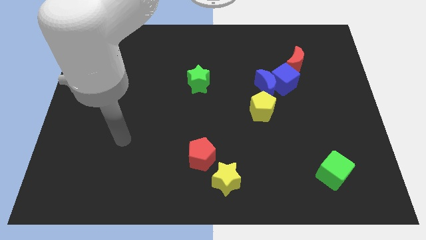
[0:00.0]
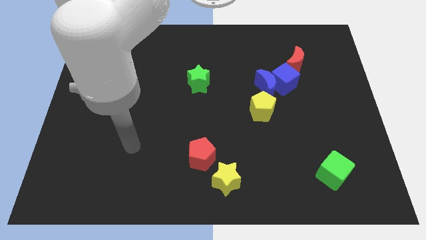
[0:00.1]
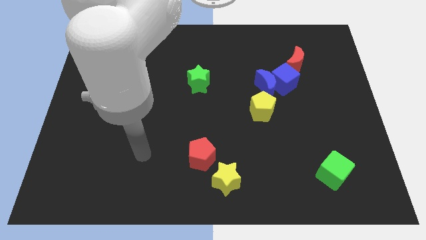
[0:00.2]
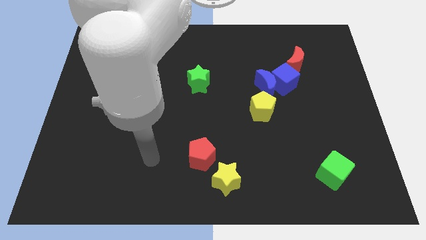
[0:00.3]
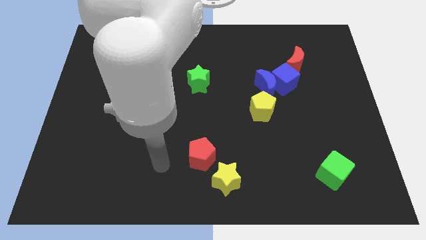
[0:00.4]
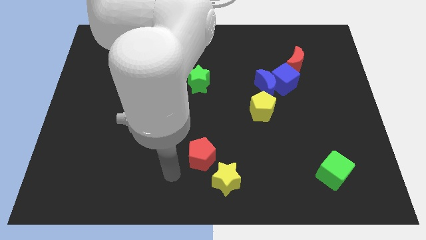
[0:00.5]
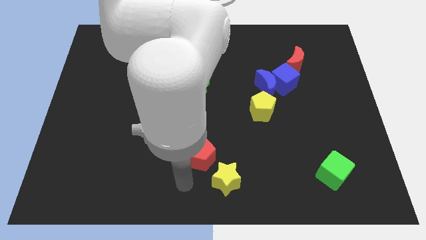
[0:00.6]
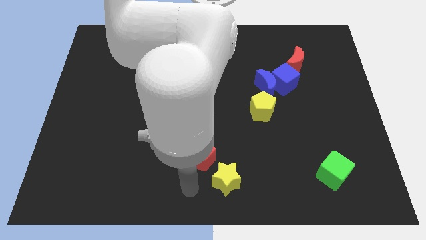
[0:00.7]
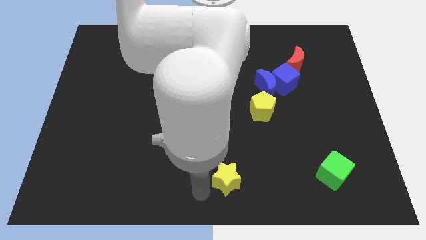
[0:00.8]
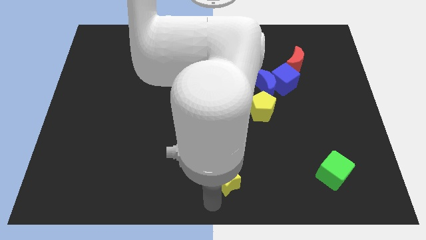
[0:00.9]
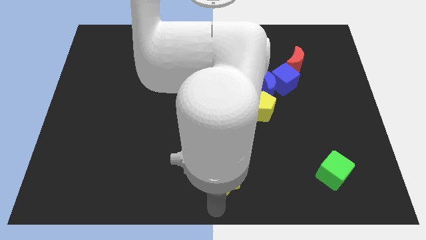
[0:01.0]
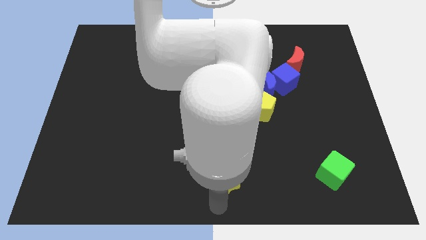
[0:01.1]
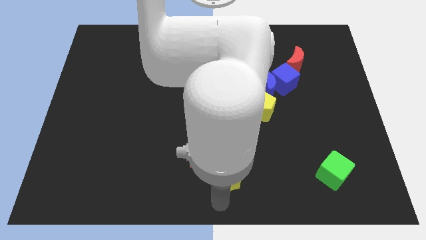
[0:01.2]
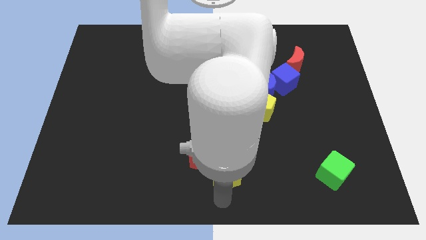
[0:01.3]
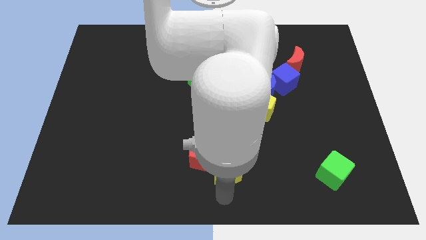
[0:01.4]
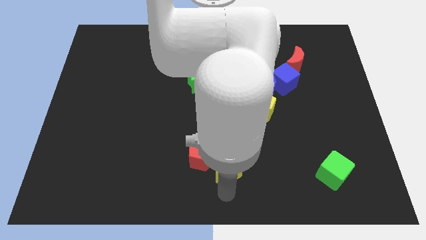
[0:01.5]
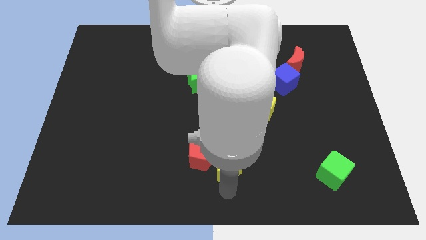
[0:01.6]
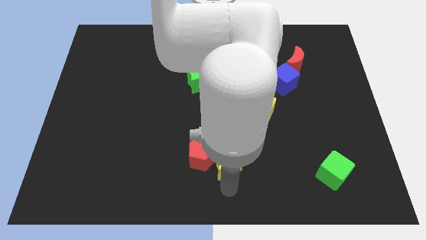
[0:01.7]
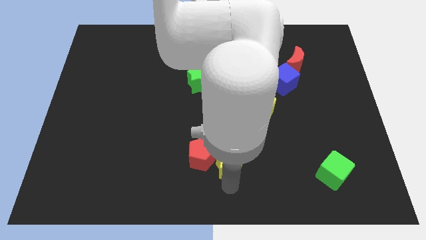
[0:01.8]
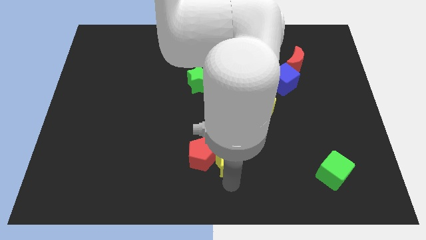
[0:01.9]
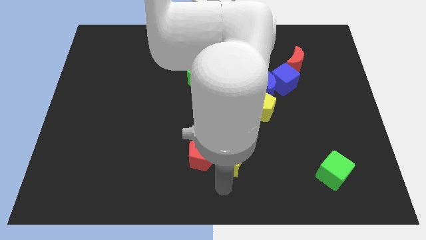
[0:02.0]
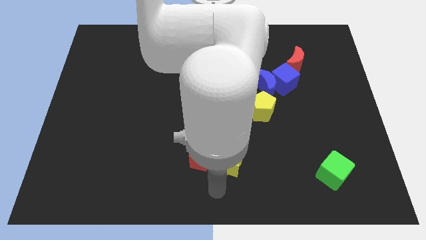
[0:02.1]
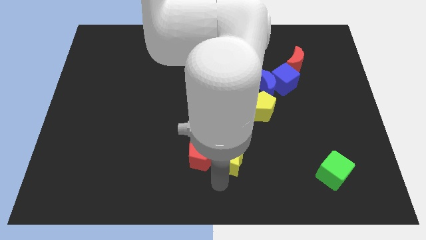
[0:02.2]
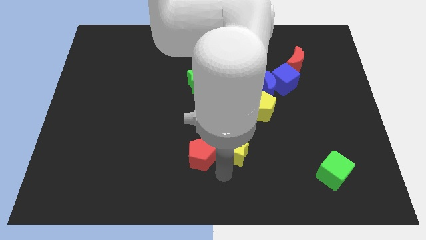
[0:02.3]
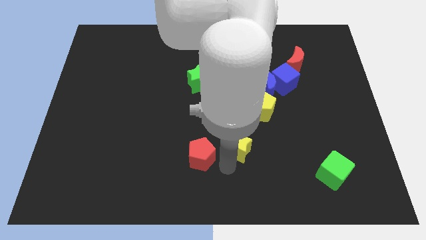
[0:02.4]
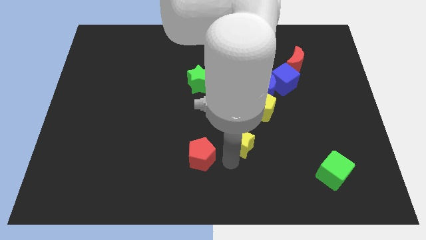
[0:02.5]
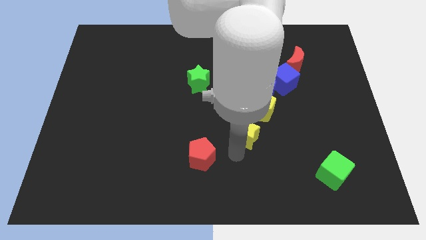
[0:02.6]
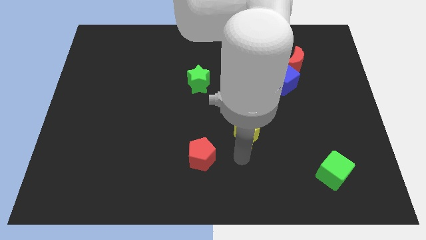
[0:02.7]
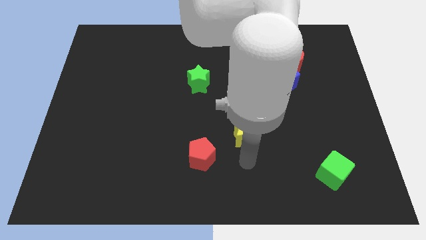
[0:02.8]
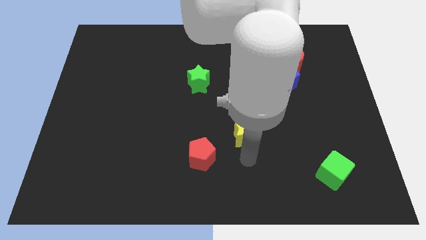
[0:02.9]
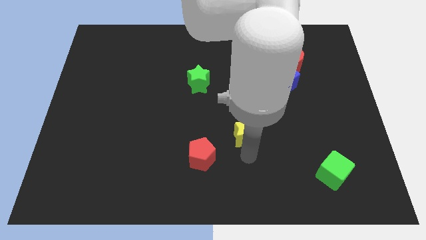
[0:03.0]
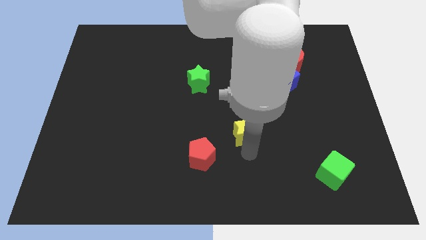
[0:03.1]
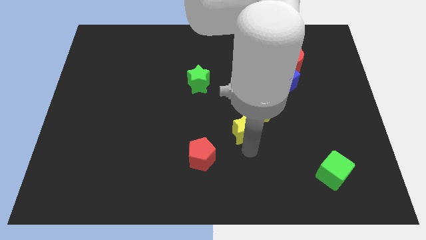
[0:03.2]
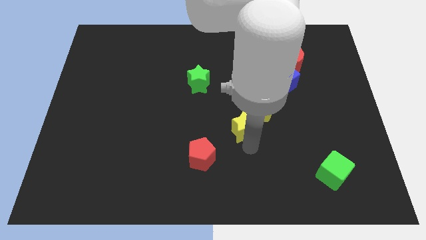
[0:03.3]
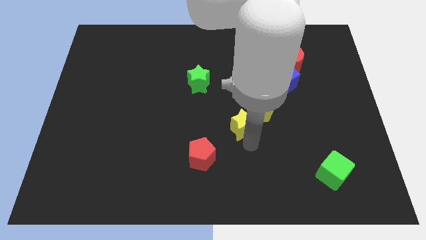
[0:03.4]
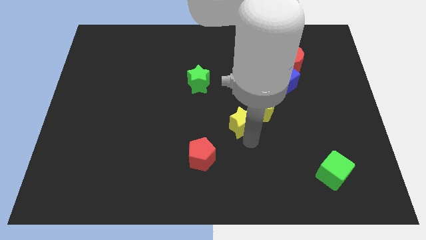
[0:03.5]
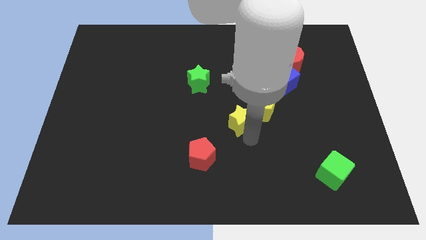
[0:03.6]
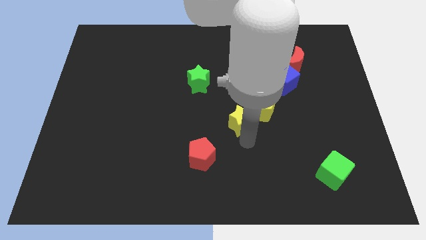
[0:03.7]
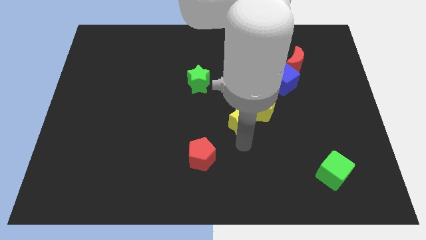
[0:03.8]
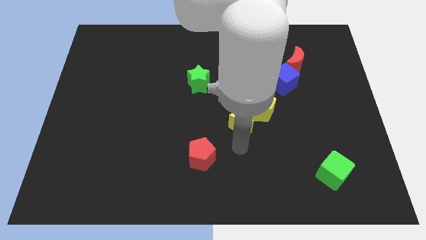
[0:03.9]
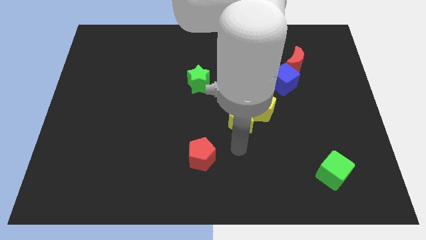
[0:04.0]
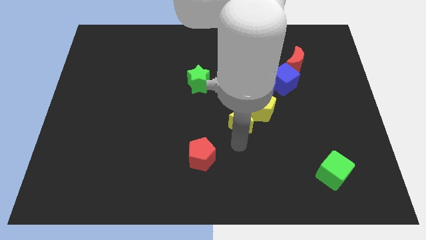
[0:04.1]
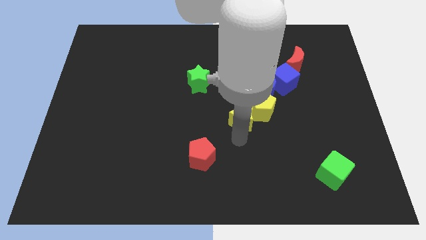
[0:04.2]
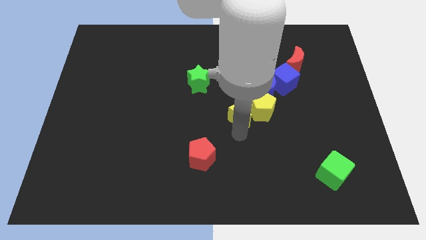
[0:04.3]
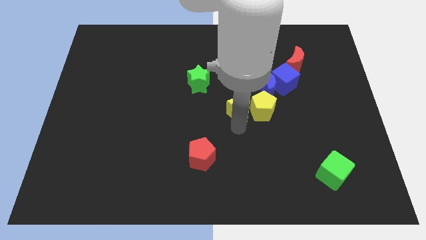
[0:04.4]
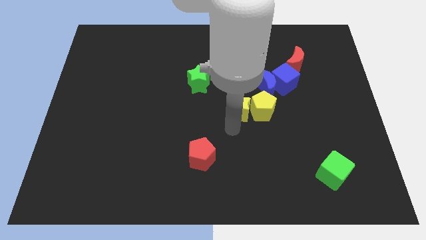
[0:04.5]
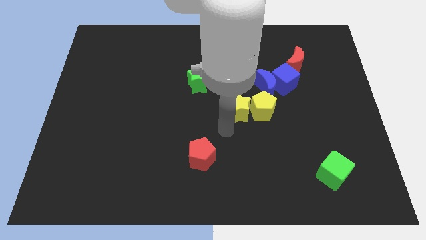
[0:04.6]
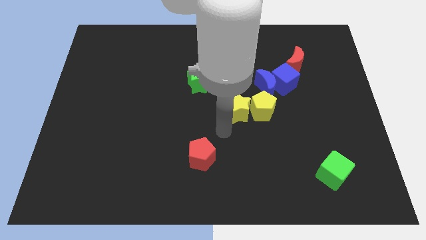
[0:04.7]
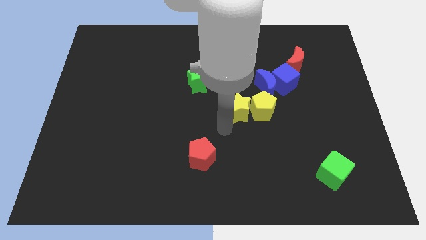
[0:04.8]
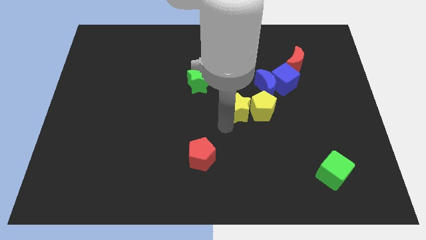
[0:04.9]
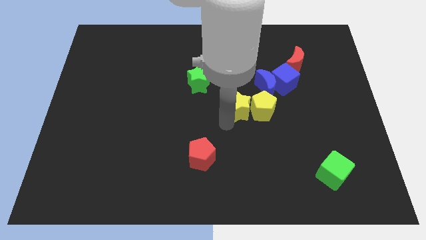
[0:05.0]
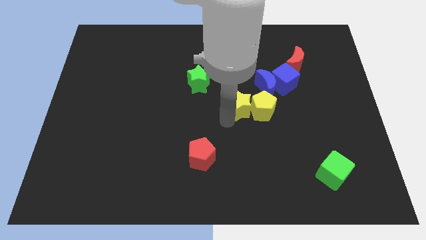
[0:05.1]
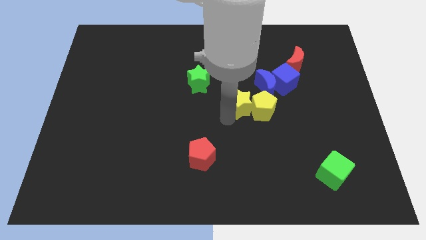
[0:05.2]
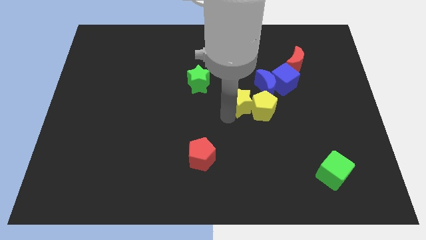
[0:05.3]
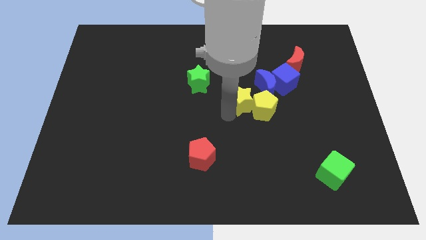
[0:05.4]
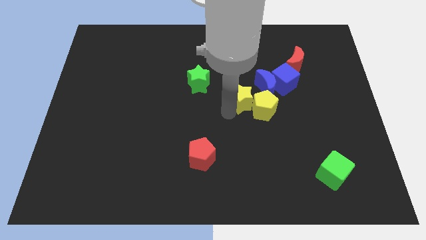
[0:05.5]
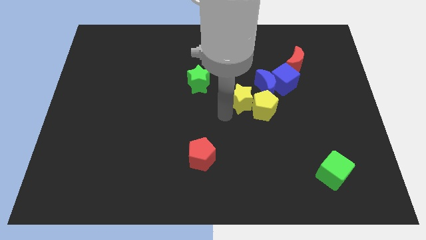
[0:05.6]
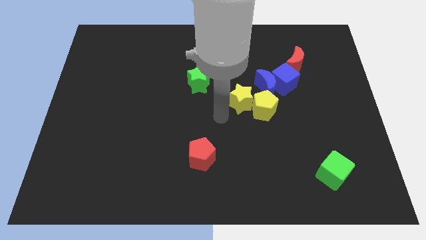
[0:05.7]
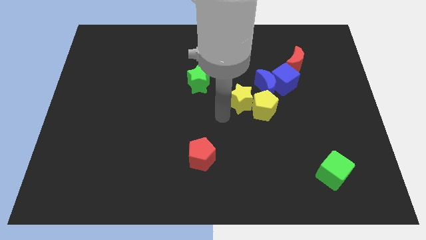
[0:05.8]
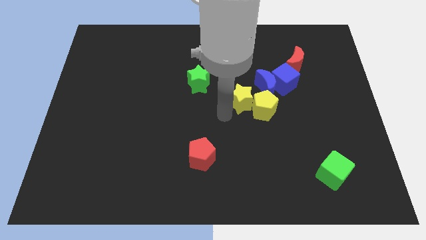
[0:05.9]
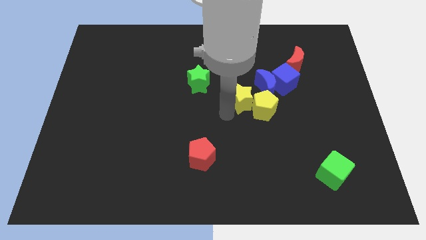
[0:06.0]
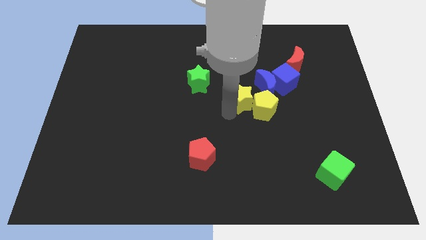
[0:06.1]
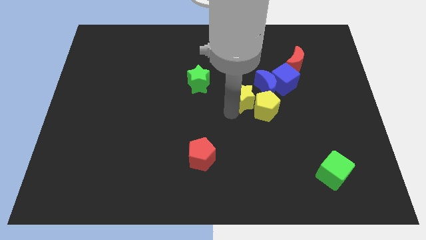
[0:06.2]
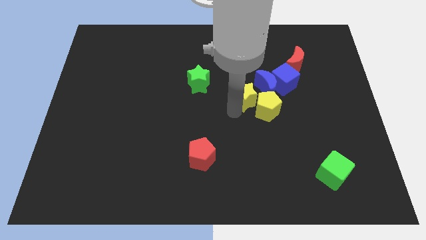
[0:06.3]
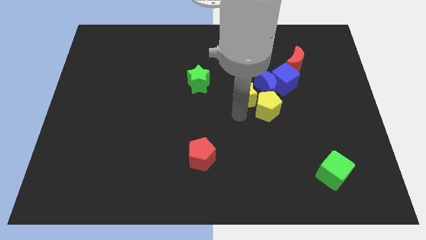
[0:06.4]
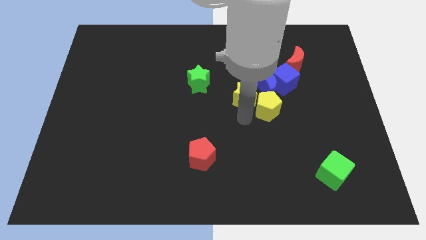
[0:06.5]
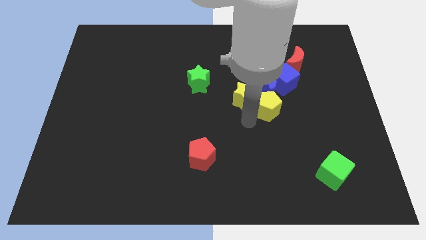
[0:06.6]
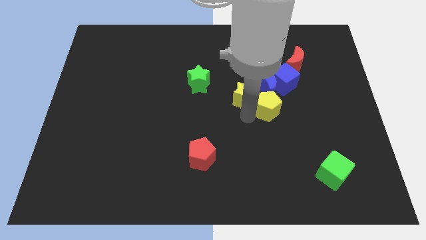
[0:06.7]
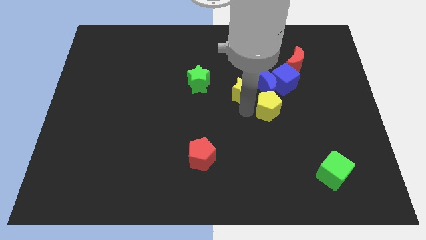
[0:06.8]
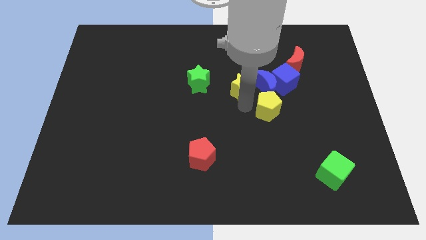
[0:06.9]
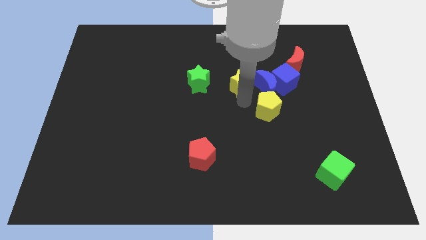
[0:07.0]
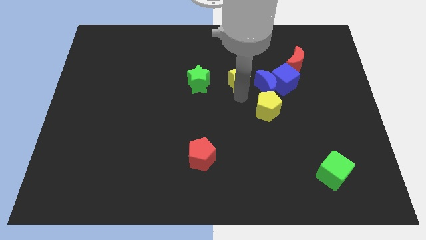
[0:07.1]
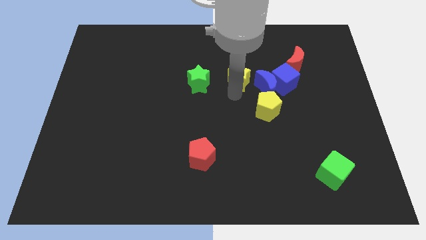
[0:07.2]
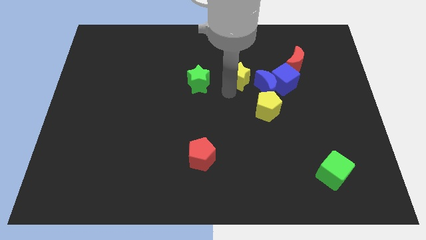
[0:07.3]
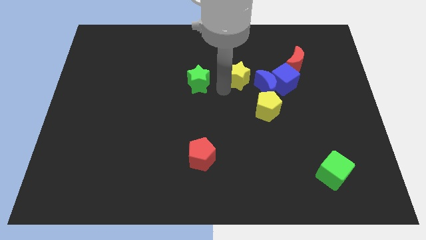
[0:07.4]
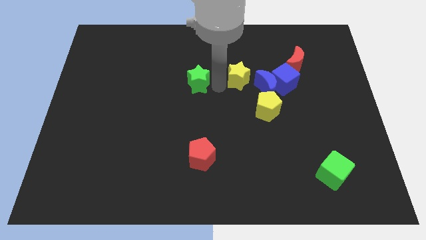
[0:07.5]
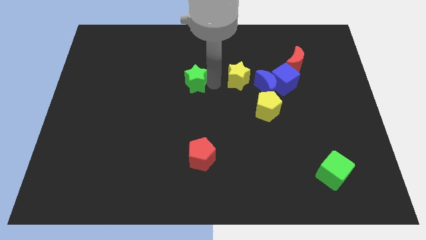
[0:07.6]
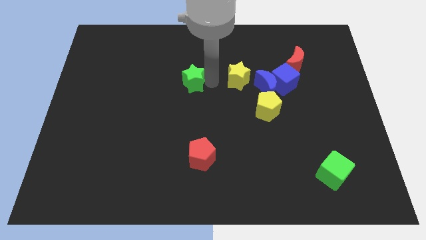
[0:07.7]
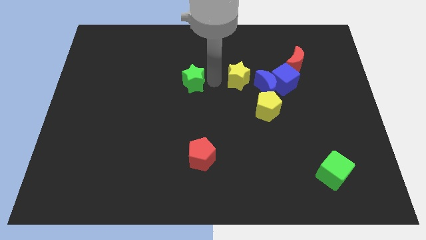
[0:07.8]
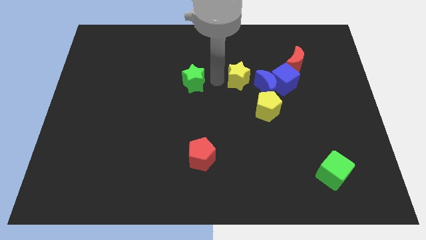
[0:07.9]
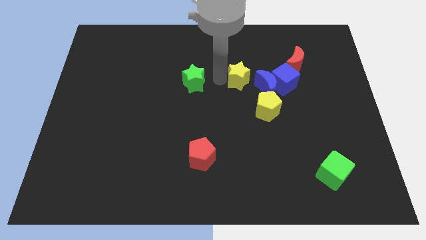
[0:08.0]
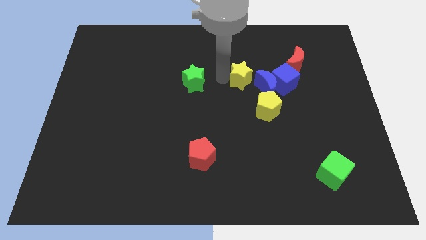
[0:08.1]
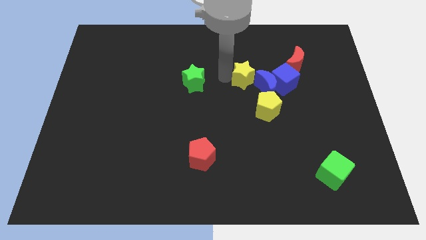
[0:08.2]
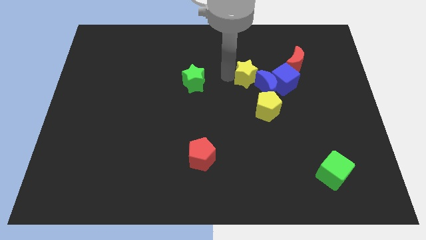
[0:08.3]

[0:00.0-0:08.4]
slide the yellow star to the top of the yellow pentagon
